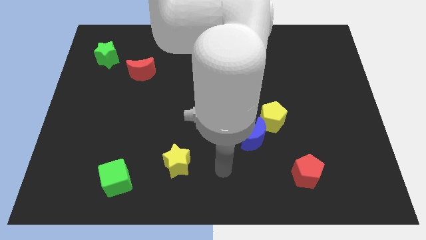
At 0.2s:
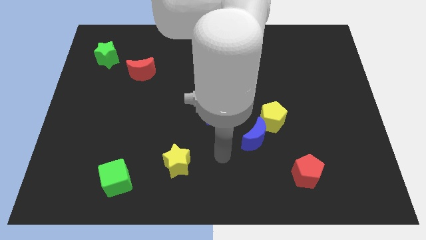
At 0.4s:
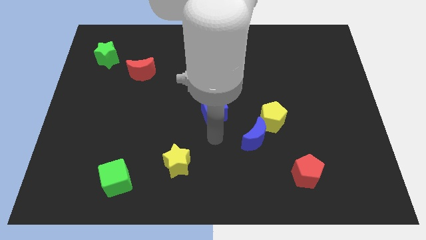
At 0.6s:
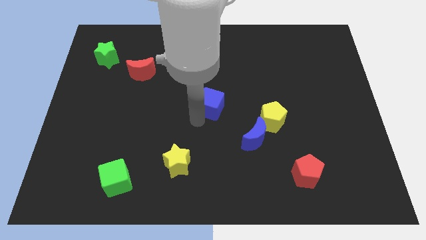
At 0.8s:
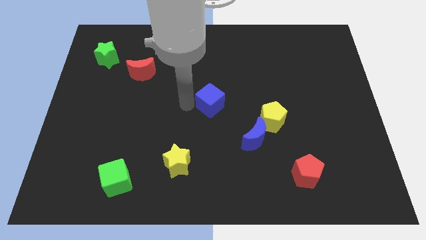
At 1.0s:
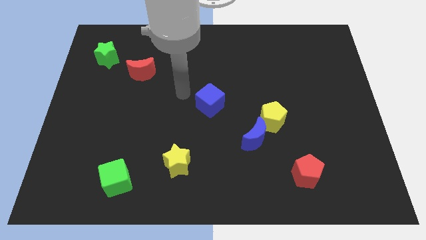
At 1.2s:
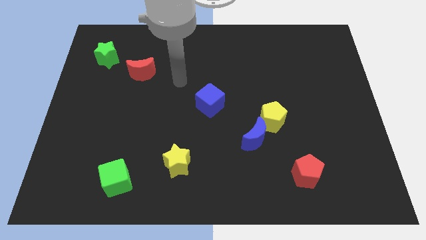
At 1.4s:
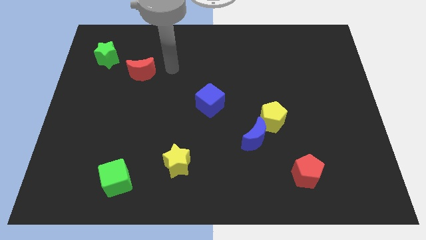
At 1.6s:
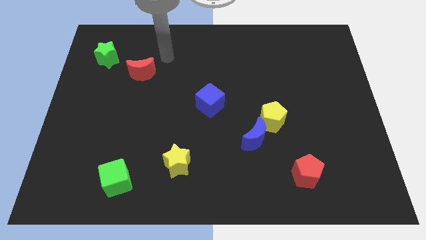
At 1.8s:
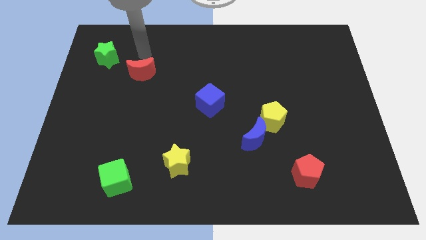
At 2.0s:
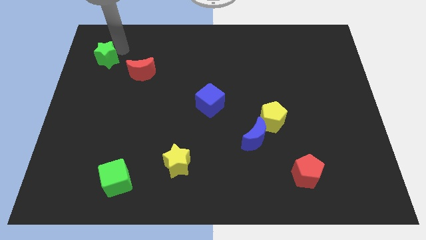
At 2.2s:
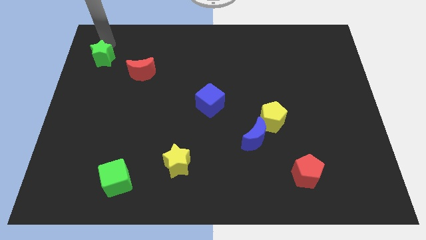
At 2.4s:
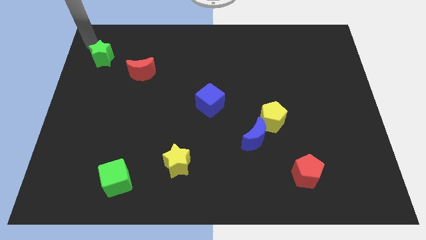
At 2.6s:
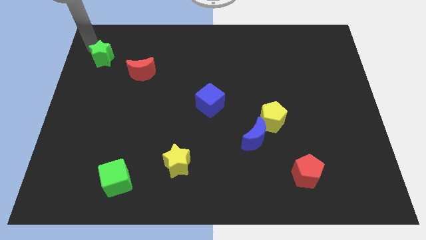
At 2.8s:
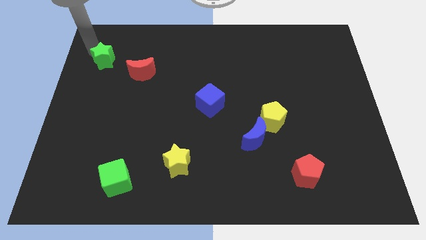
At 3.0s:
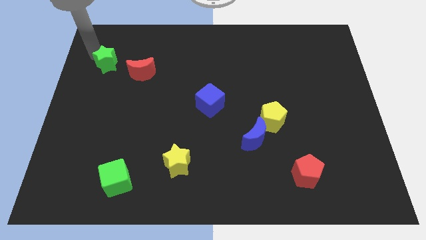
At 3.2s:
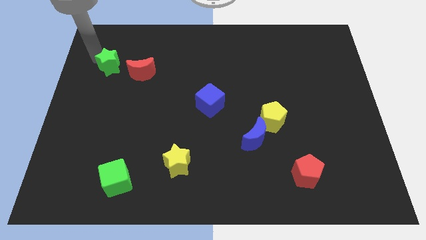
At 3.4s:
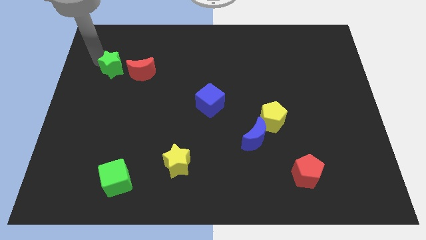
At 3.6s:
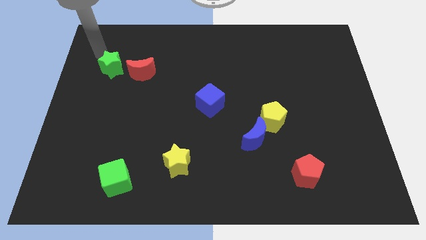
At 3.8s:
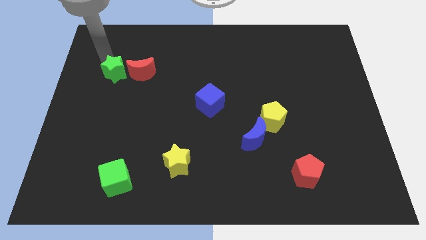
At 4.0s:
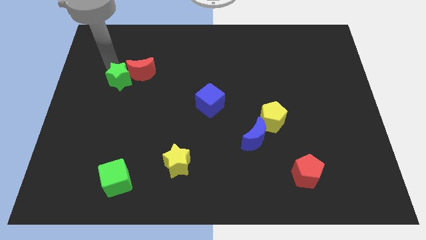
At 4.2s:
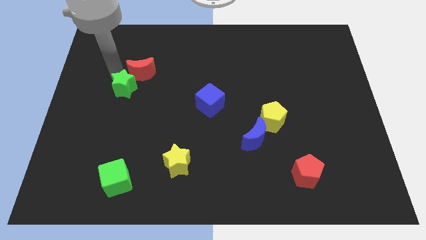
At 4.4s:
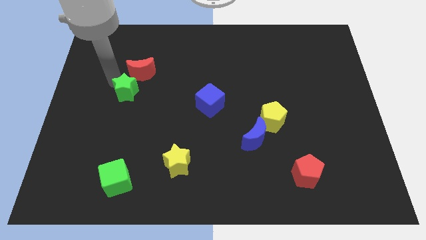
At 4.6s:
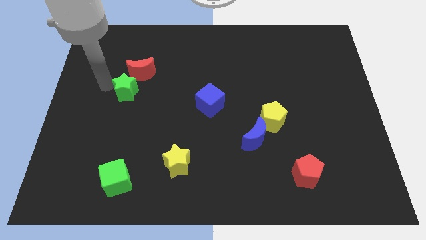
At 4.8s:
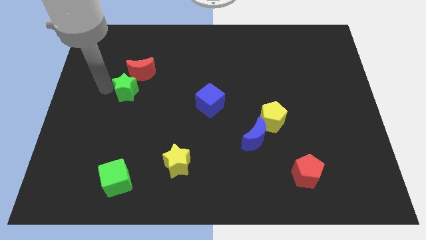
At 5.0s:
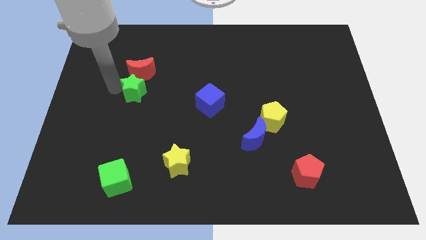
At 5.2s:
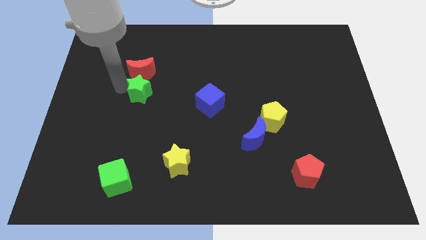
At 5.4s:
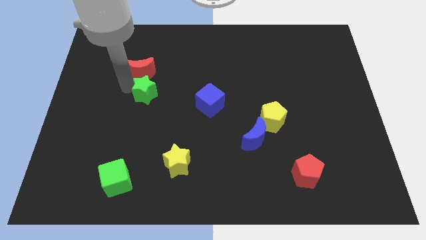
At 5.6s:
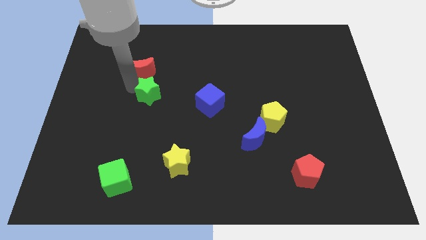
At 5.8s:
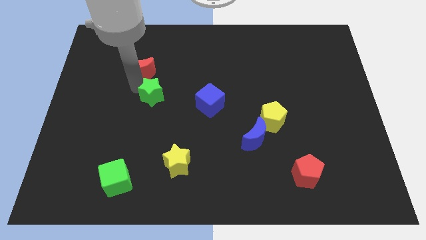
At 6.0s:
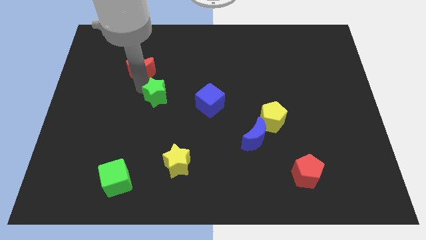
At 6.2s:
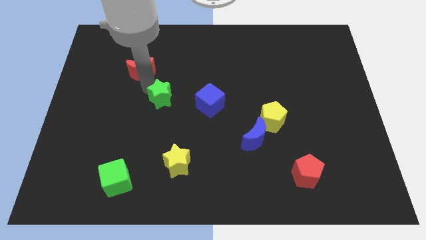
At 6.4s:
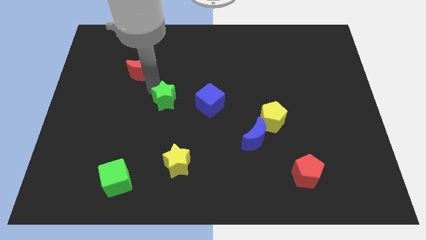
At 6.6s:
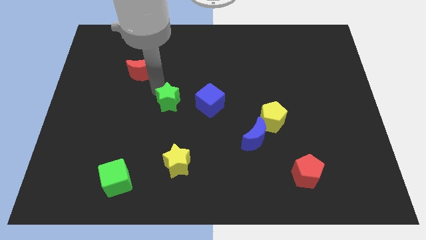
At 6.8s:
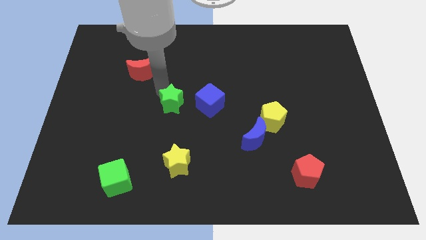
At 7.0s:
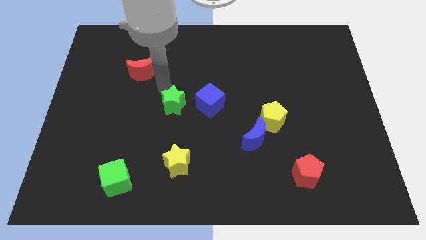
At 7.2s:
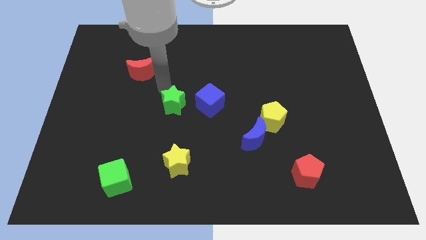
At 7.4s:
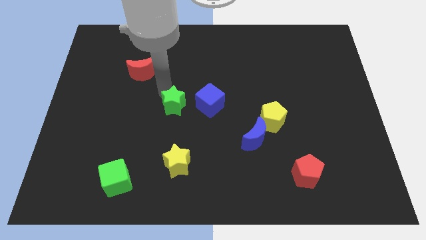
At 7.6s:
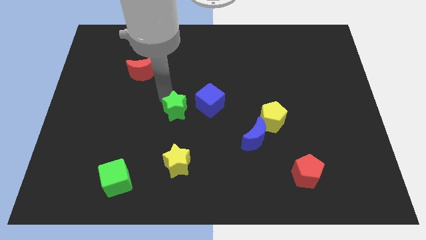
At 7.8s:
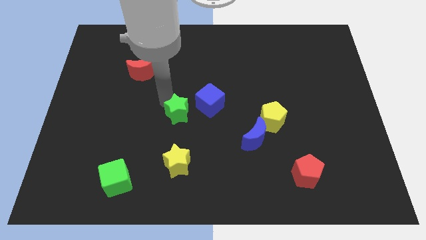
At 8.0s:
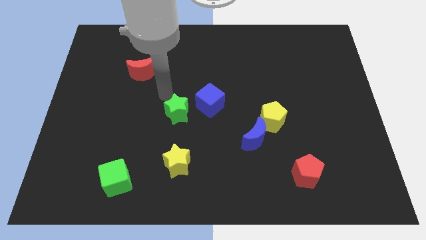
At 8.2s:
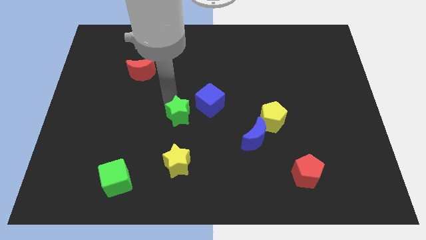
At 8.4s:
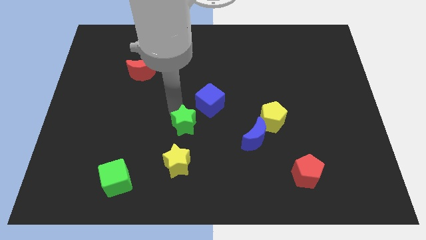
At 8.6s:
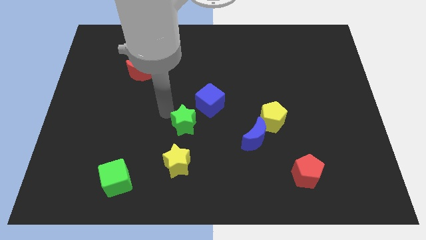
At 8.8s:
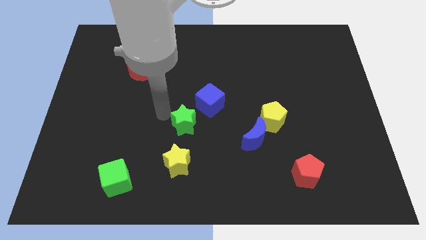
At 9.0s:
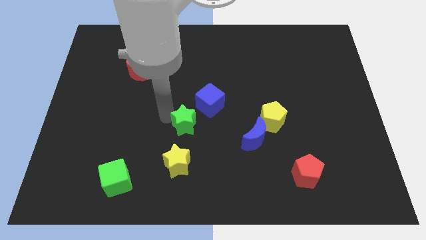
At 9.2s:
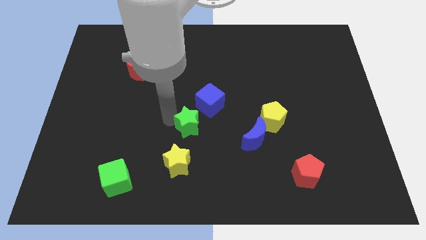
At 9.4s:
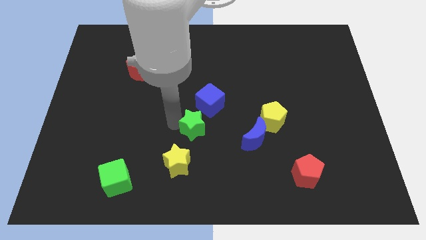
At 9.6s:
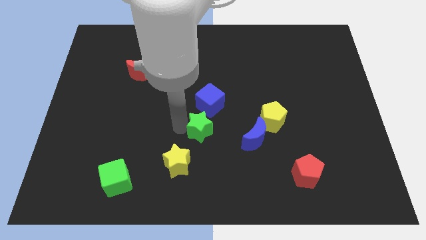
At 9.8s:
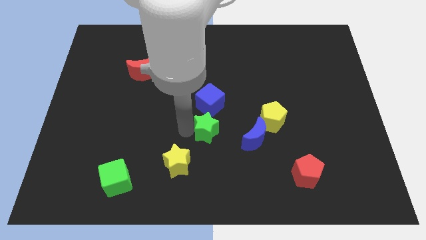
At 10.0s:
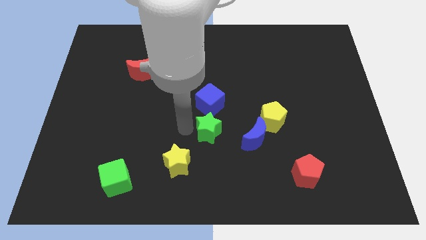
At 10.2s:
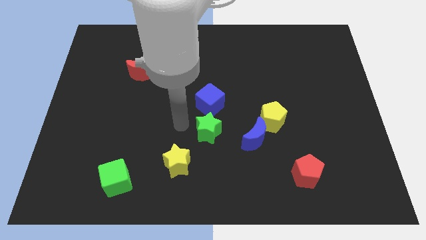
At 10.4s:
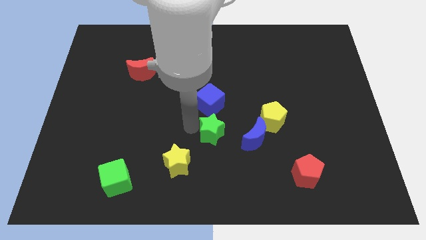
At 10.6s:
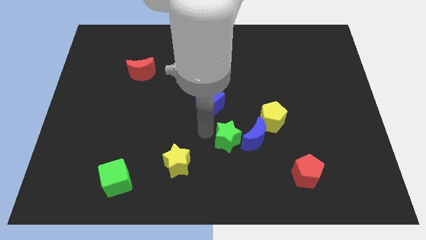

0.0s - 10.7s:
slide the green star towards the blue moon

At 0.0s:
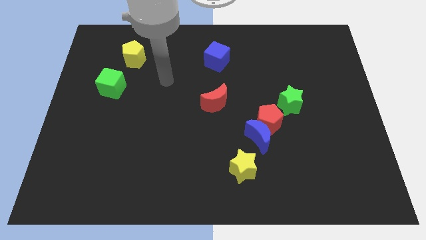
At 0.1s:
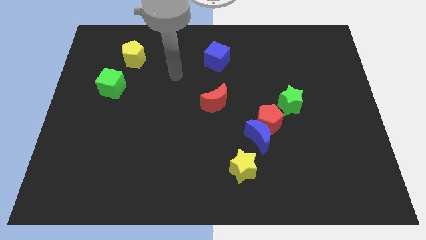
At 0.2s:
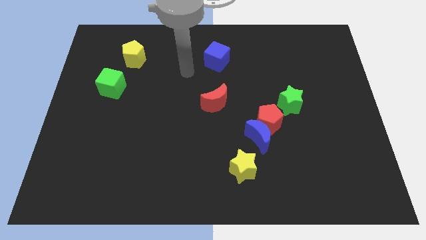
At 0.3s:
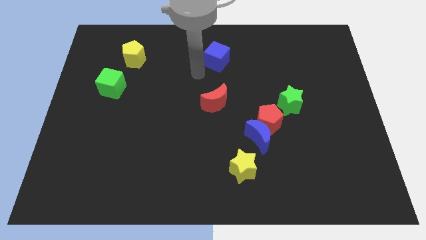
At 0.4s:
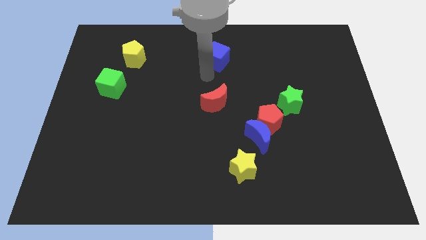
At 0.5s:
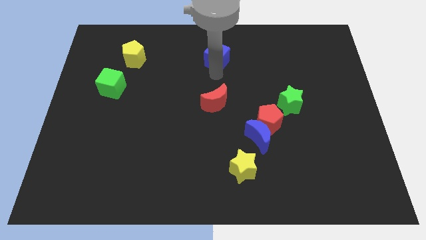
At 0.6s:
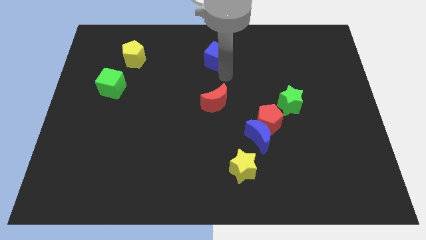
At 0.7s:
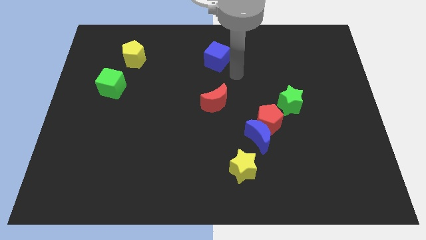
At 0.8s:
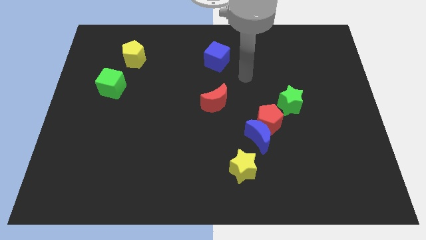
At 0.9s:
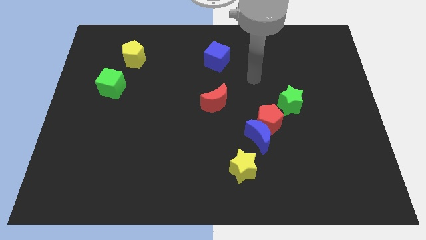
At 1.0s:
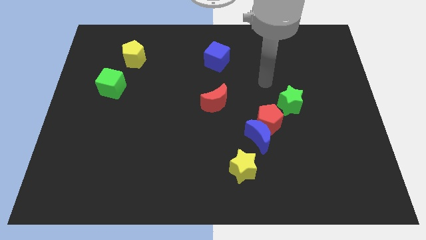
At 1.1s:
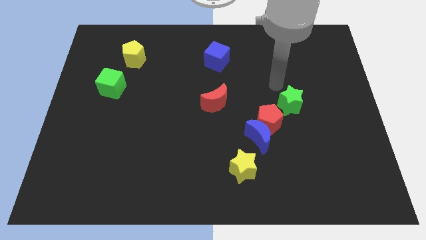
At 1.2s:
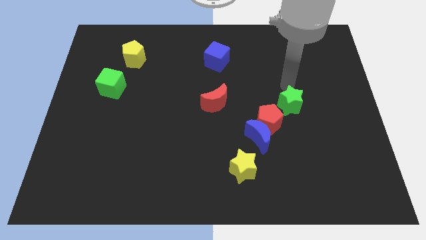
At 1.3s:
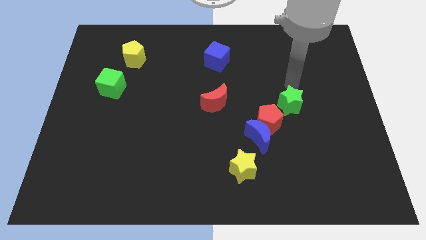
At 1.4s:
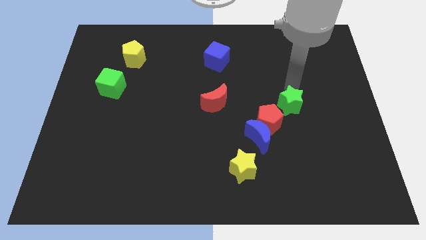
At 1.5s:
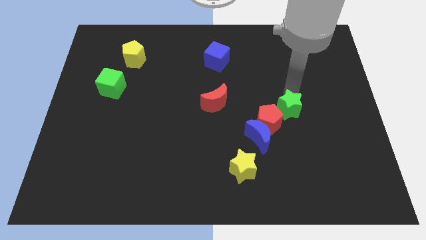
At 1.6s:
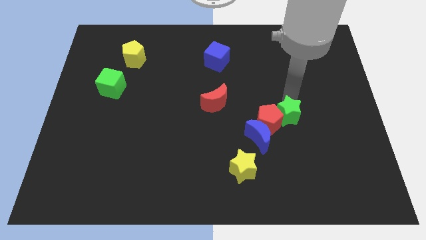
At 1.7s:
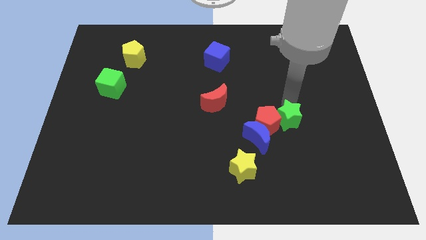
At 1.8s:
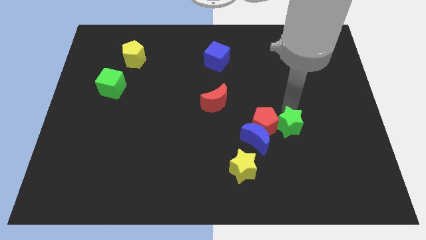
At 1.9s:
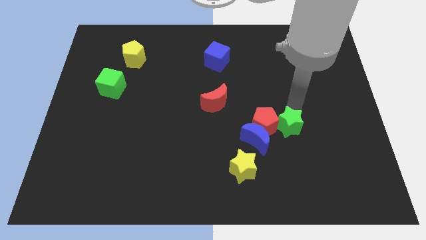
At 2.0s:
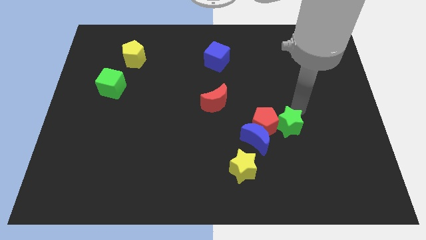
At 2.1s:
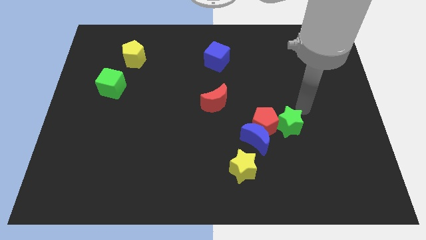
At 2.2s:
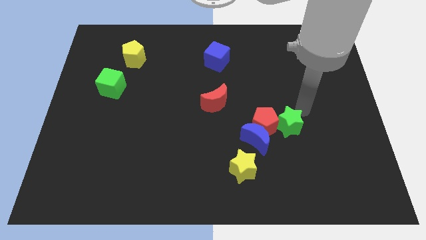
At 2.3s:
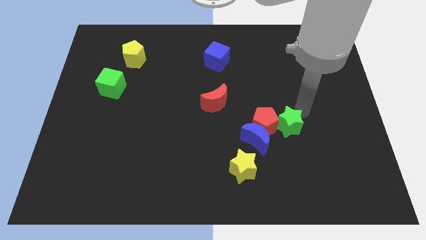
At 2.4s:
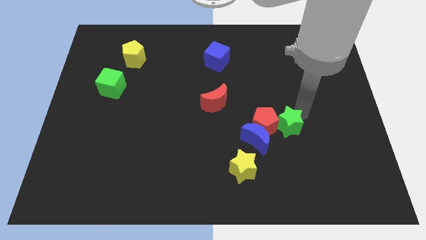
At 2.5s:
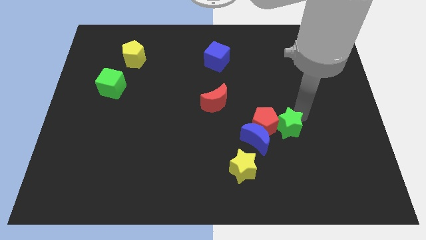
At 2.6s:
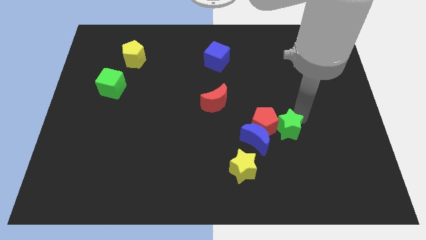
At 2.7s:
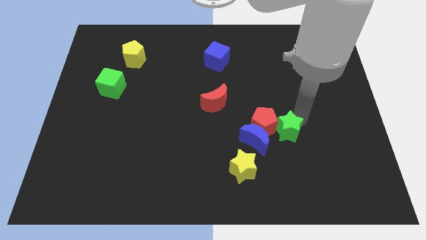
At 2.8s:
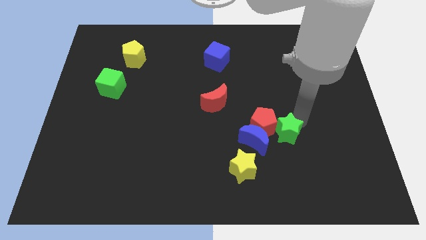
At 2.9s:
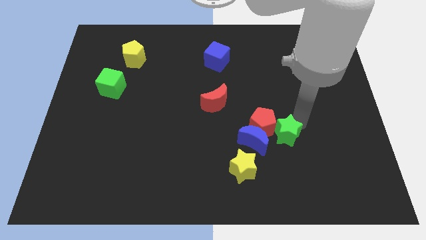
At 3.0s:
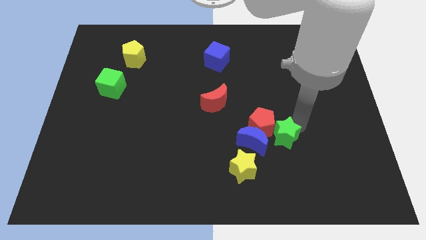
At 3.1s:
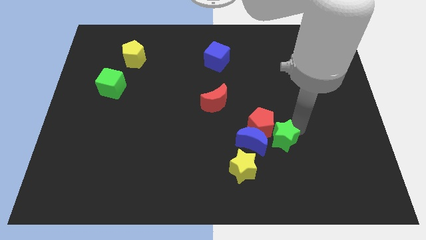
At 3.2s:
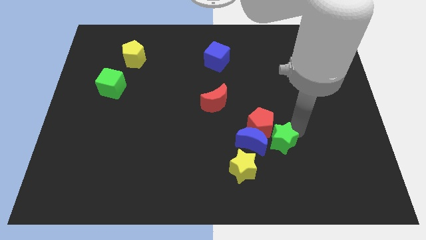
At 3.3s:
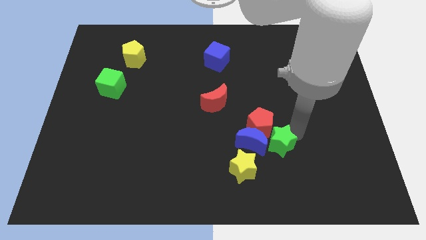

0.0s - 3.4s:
put the green star next to the blue moon
